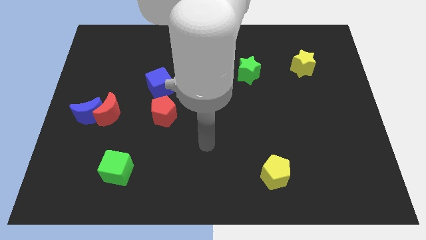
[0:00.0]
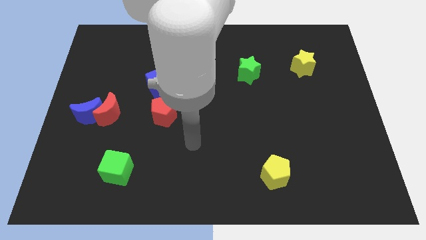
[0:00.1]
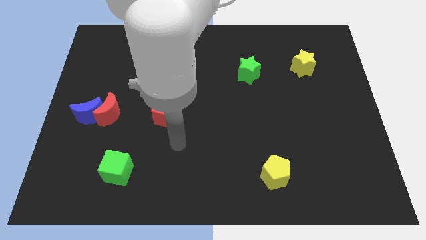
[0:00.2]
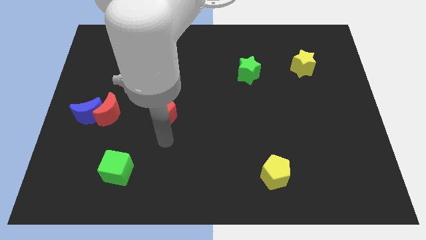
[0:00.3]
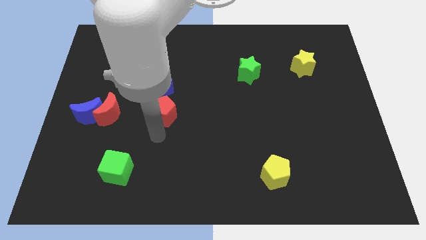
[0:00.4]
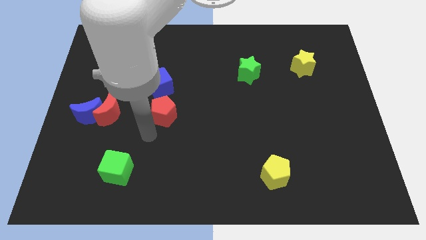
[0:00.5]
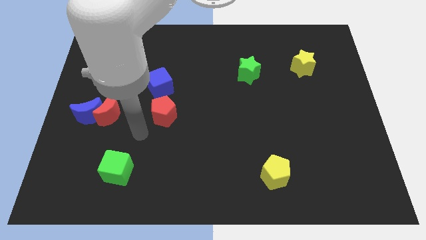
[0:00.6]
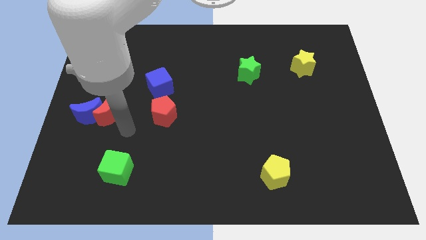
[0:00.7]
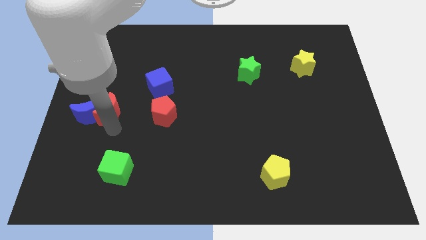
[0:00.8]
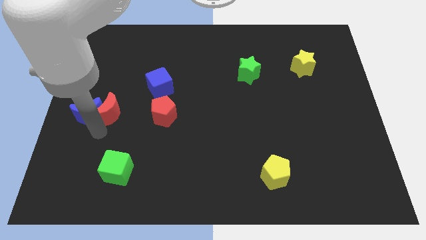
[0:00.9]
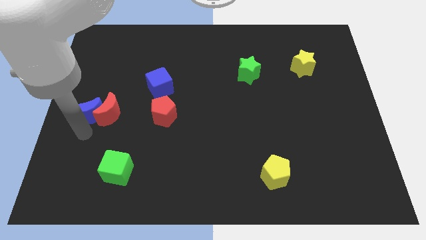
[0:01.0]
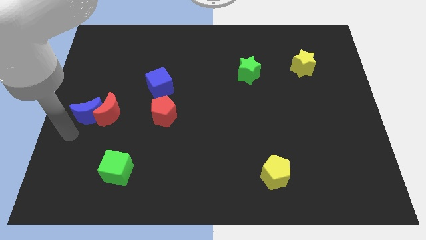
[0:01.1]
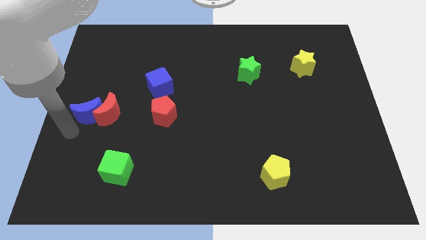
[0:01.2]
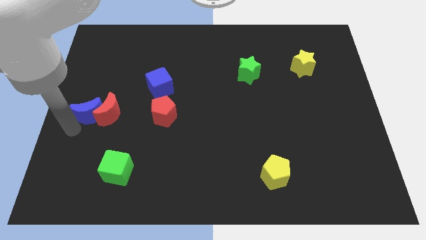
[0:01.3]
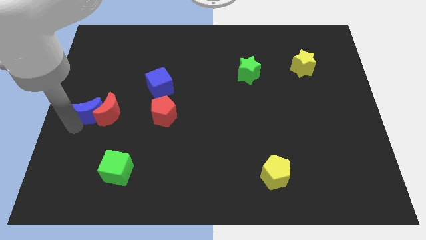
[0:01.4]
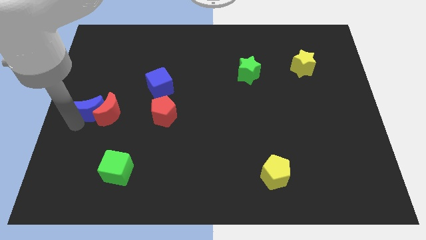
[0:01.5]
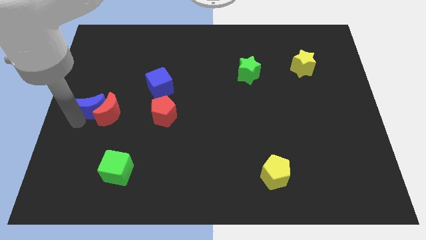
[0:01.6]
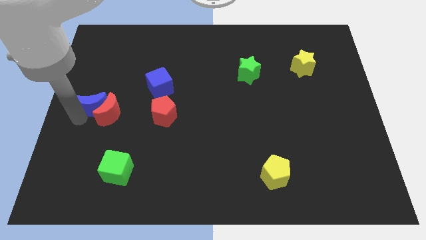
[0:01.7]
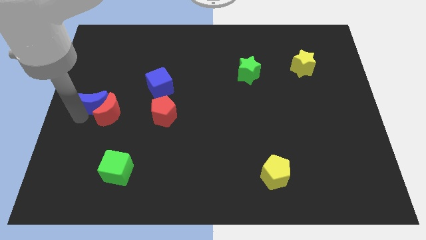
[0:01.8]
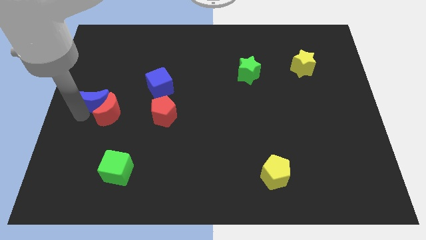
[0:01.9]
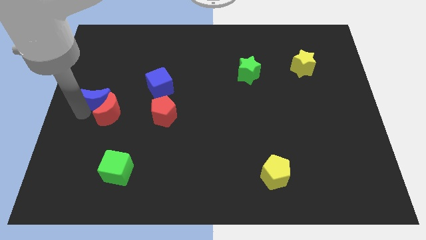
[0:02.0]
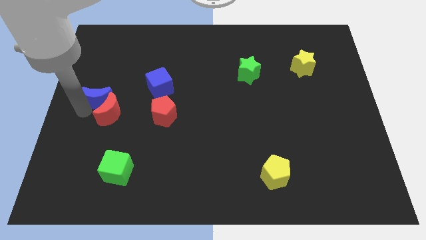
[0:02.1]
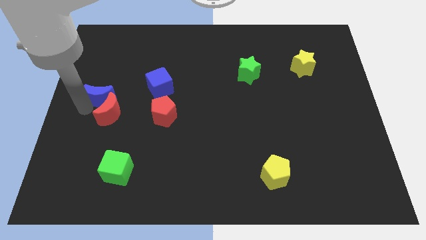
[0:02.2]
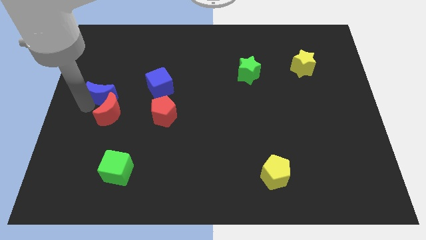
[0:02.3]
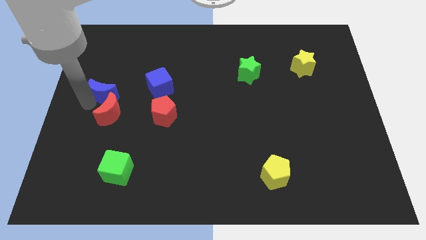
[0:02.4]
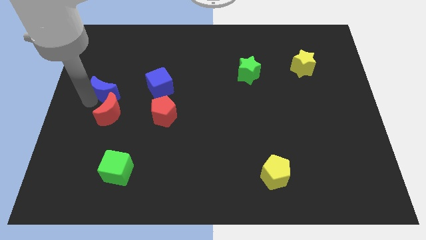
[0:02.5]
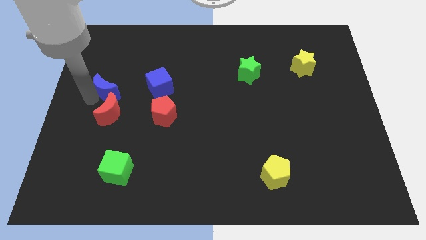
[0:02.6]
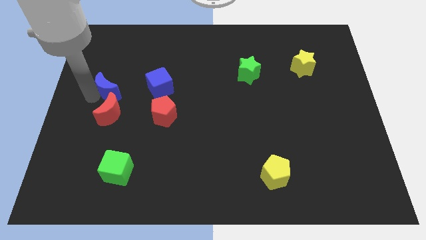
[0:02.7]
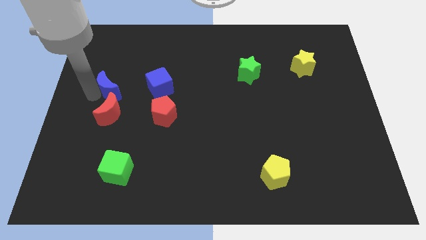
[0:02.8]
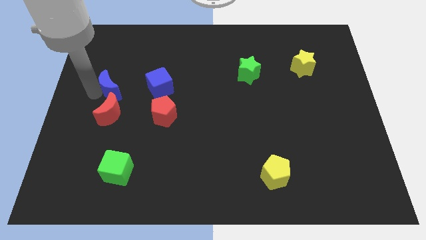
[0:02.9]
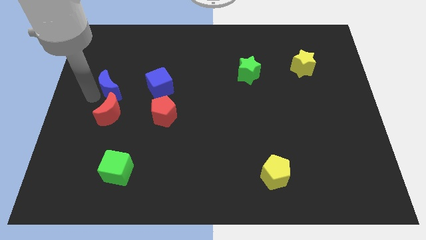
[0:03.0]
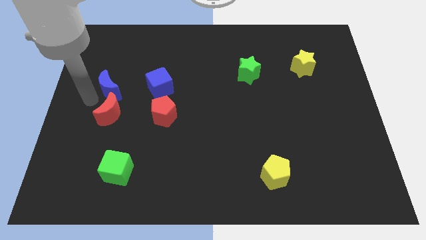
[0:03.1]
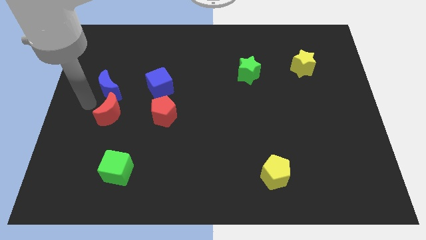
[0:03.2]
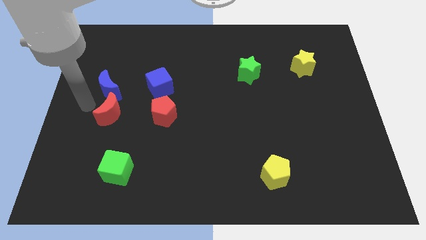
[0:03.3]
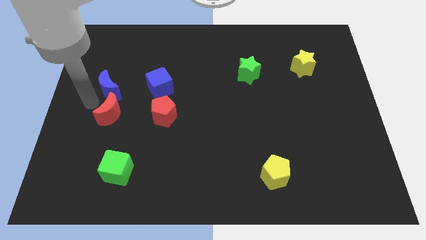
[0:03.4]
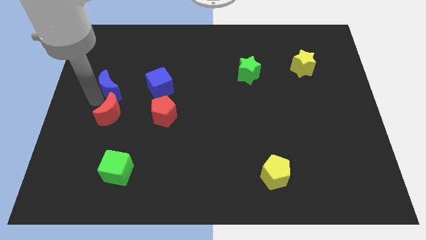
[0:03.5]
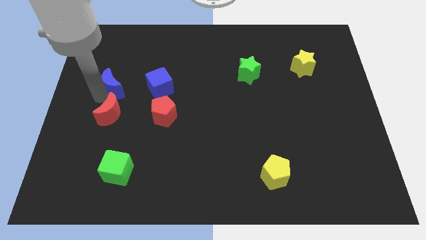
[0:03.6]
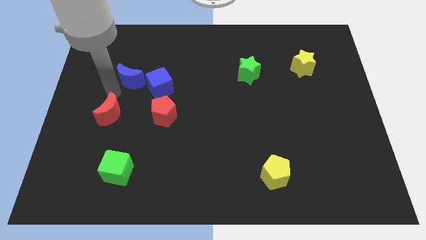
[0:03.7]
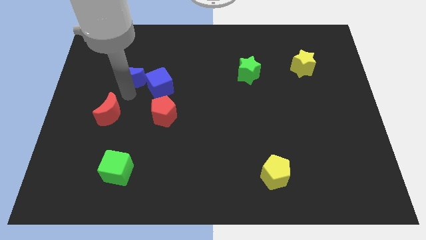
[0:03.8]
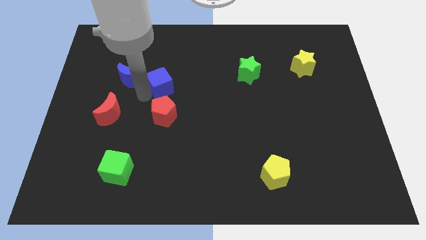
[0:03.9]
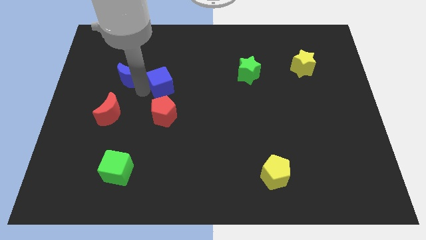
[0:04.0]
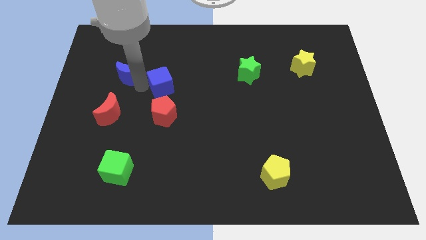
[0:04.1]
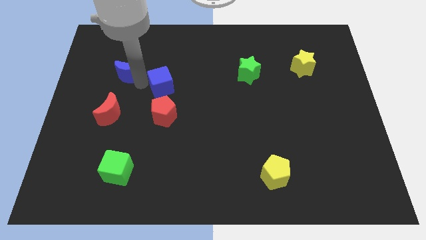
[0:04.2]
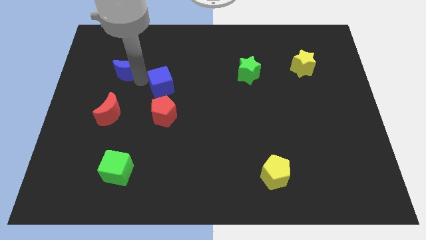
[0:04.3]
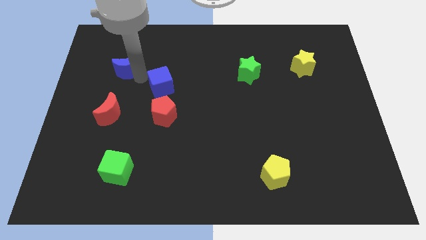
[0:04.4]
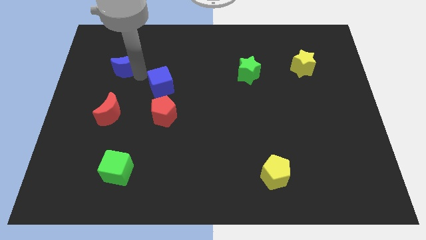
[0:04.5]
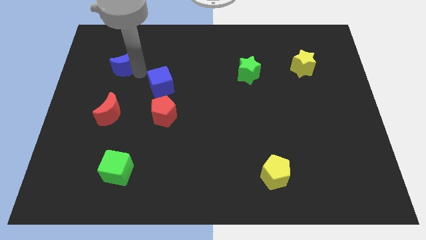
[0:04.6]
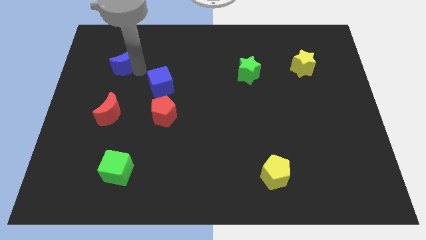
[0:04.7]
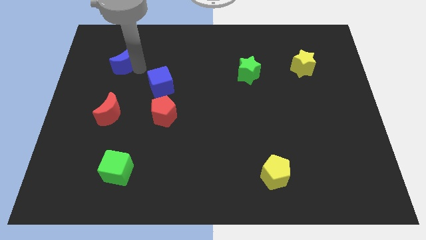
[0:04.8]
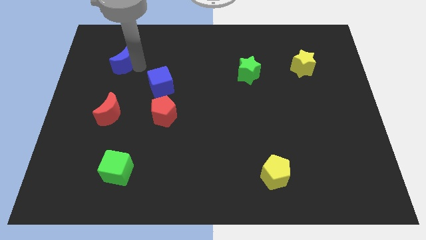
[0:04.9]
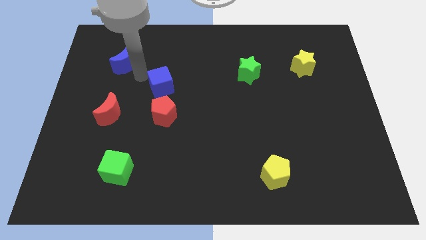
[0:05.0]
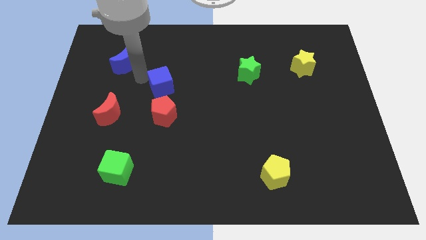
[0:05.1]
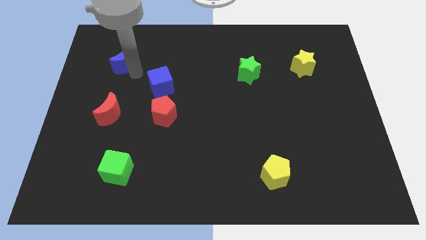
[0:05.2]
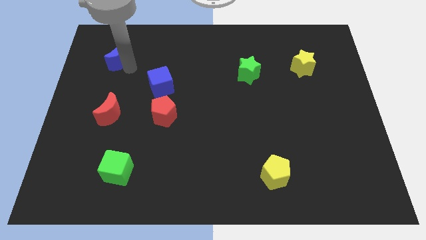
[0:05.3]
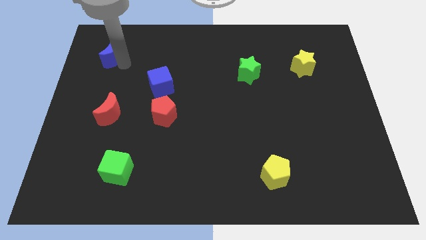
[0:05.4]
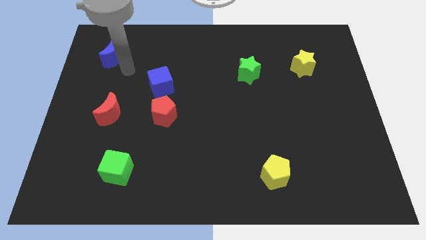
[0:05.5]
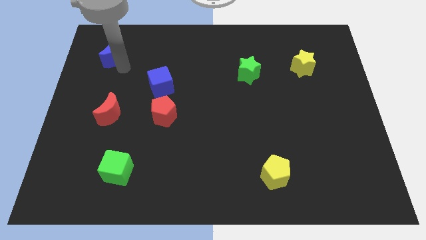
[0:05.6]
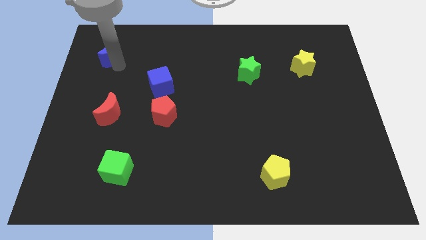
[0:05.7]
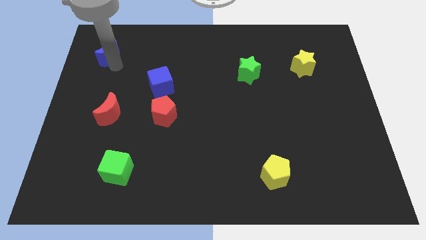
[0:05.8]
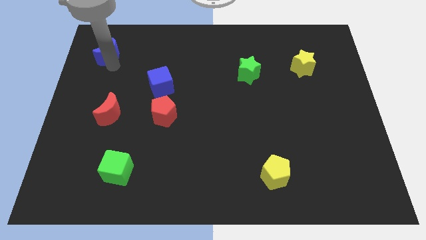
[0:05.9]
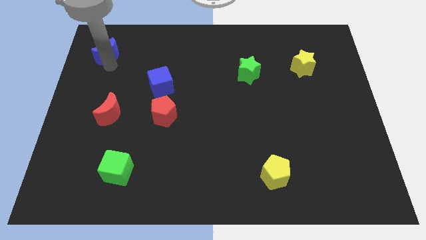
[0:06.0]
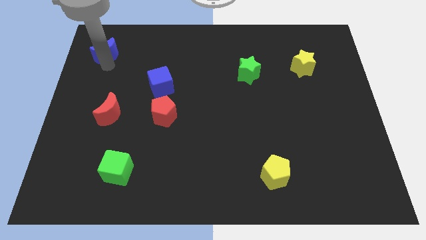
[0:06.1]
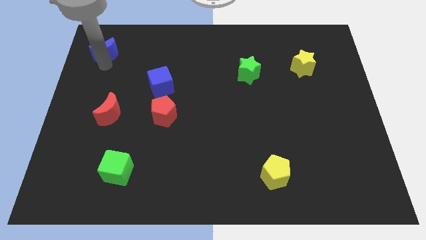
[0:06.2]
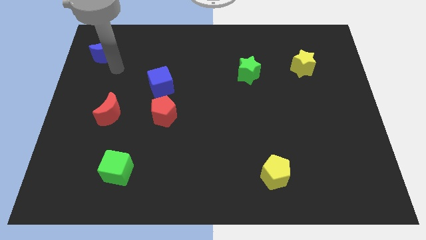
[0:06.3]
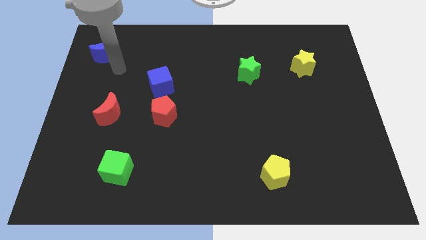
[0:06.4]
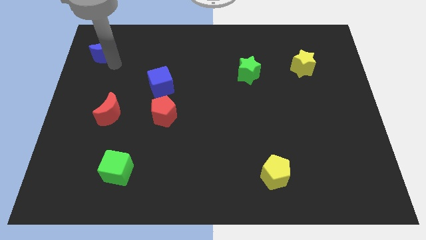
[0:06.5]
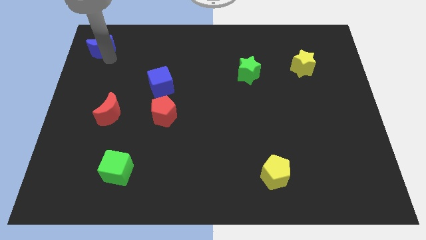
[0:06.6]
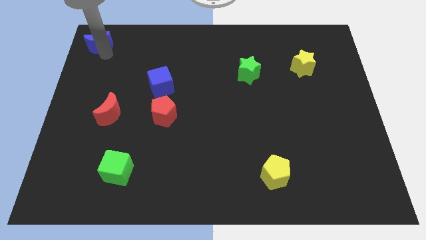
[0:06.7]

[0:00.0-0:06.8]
slide the blue moon to the top left
